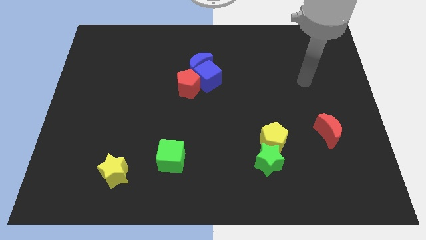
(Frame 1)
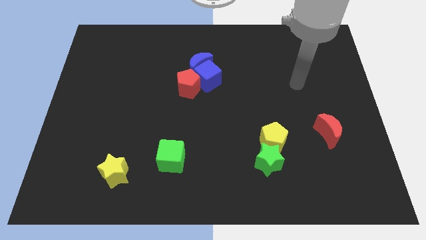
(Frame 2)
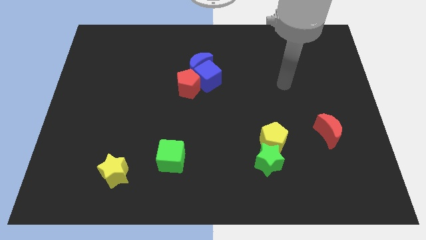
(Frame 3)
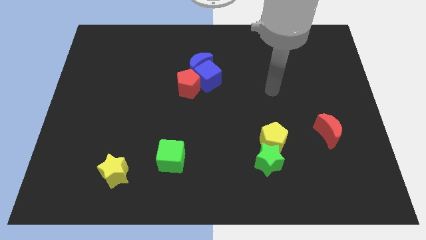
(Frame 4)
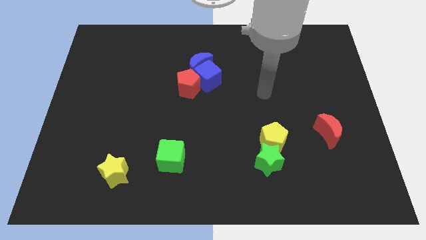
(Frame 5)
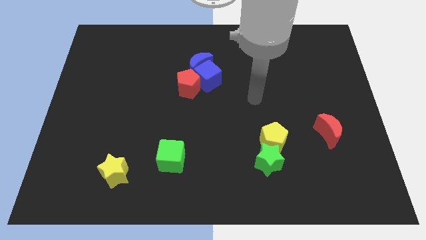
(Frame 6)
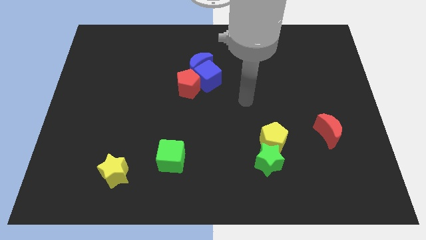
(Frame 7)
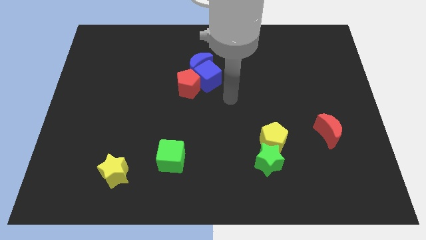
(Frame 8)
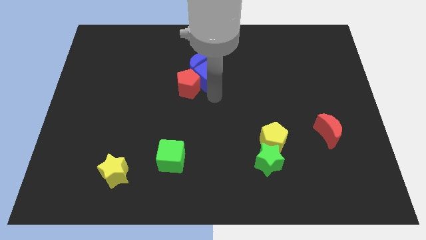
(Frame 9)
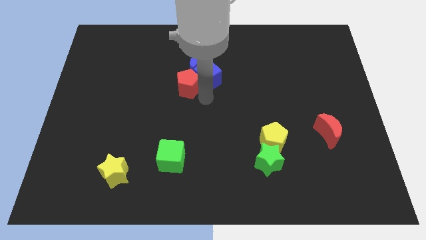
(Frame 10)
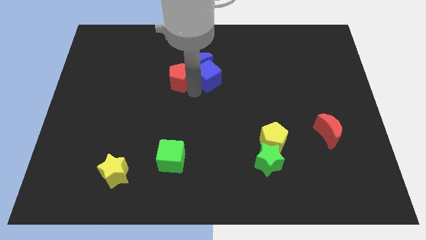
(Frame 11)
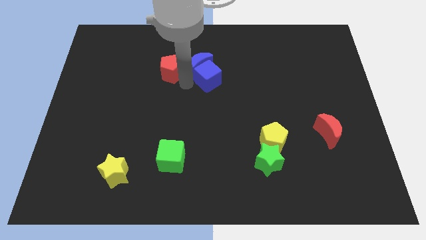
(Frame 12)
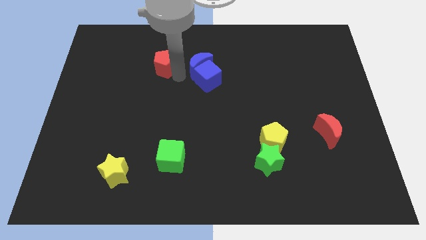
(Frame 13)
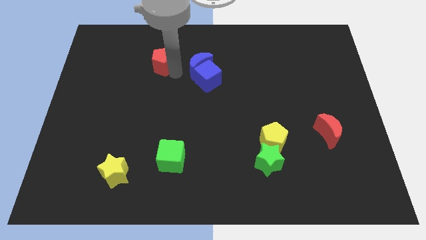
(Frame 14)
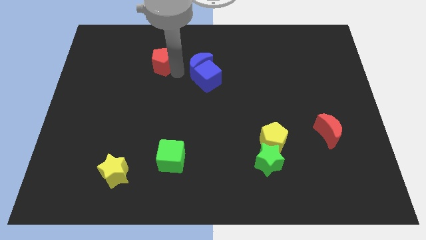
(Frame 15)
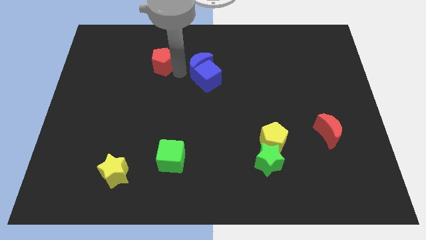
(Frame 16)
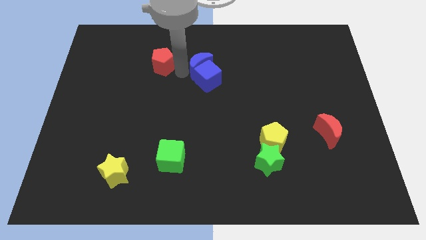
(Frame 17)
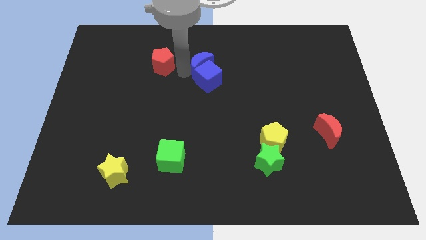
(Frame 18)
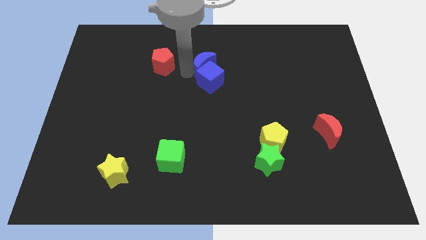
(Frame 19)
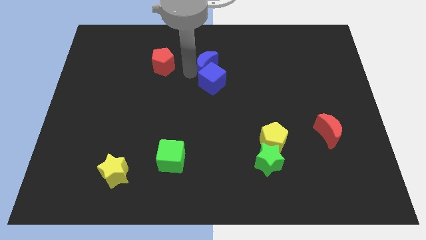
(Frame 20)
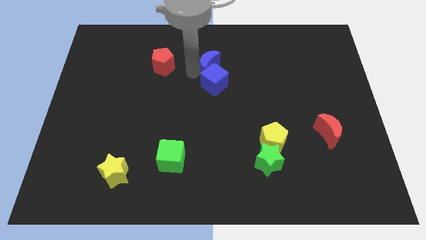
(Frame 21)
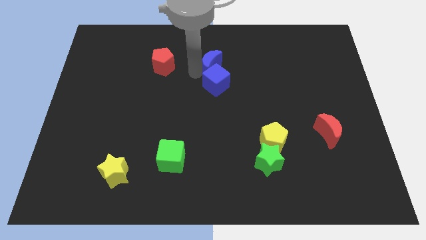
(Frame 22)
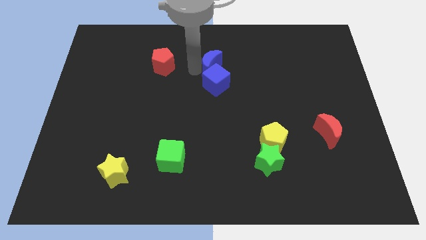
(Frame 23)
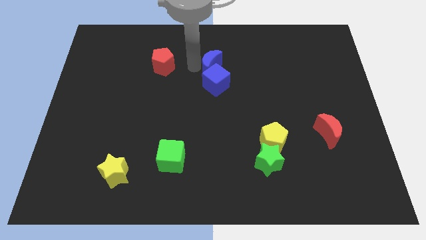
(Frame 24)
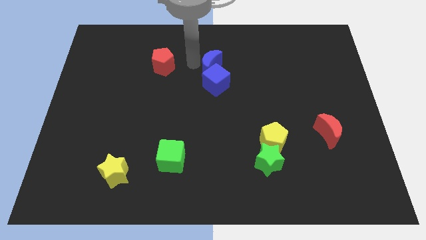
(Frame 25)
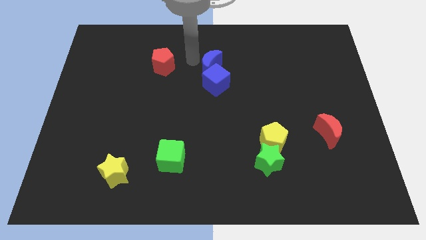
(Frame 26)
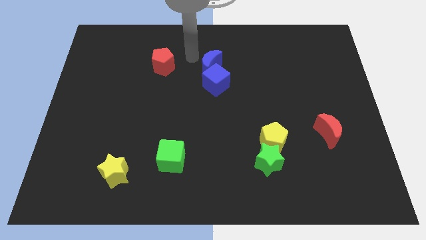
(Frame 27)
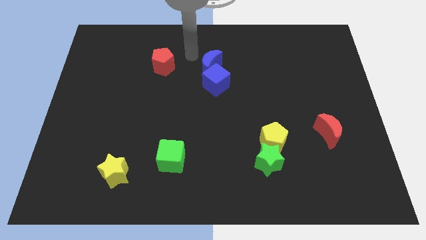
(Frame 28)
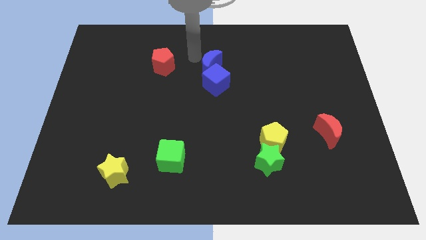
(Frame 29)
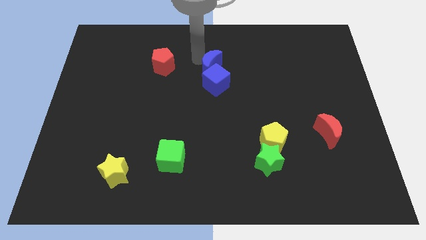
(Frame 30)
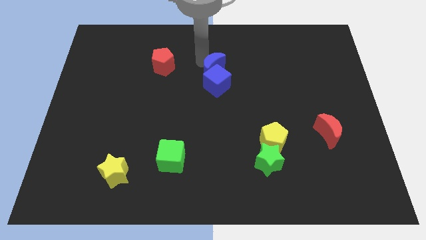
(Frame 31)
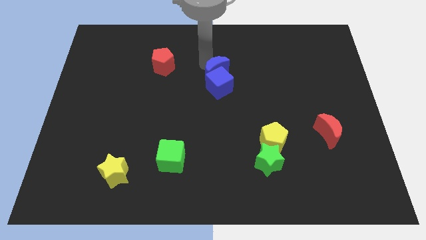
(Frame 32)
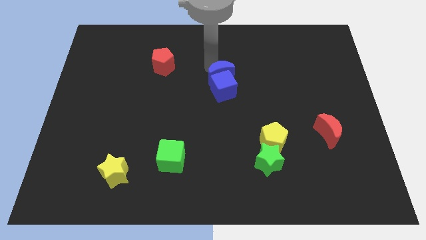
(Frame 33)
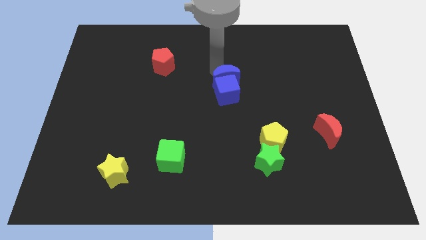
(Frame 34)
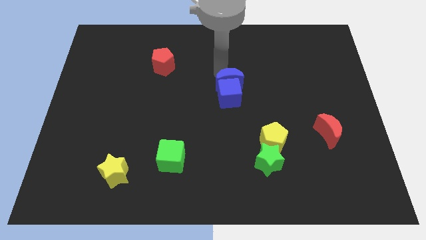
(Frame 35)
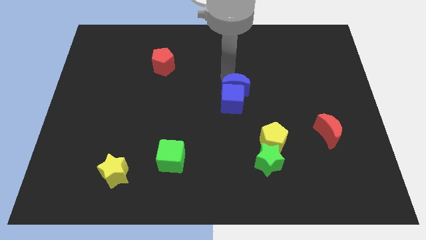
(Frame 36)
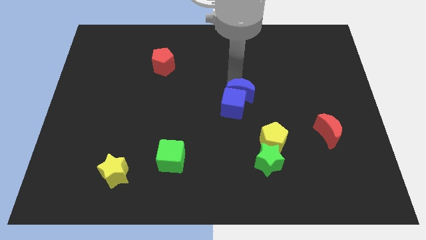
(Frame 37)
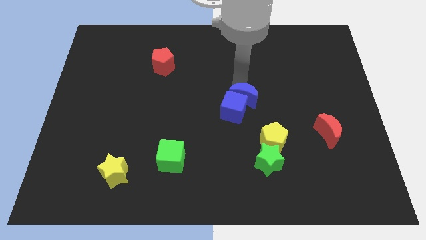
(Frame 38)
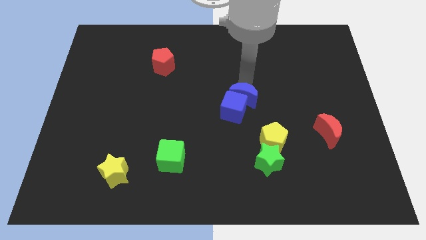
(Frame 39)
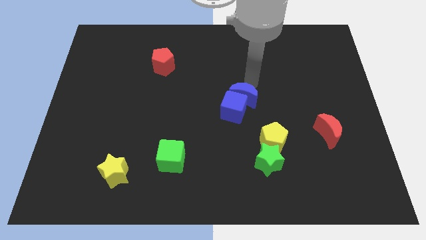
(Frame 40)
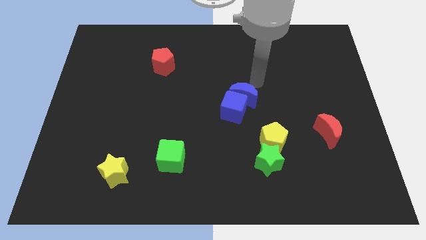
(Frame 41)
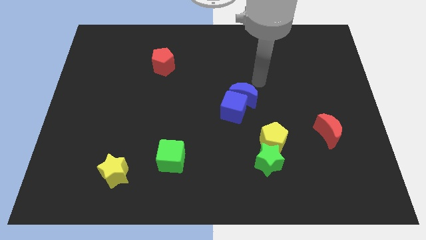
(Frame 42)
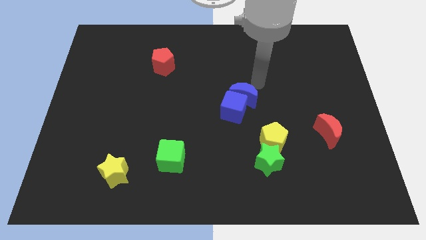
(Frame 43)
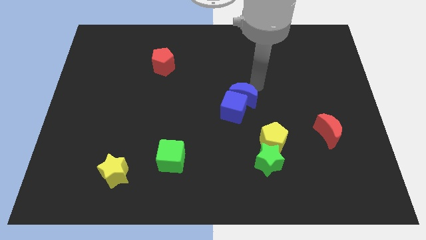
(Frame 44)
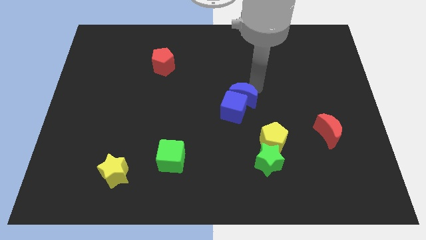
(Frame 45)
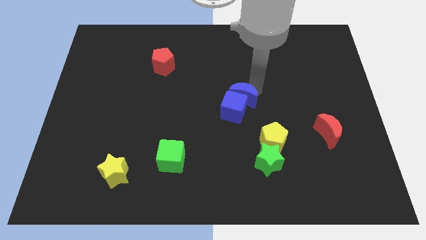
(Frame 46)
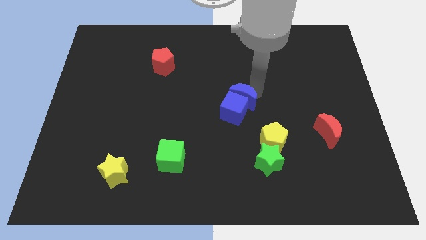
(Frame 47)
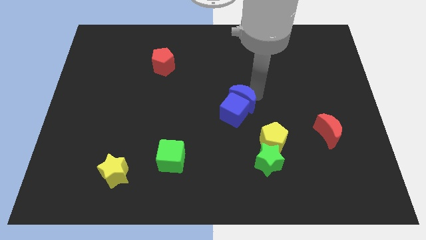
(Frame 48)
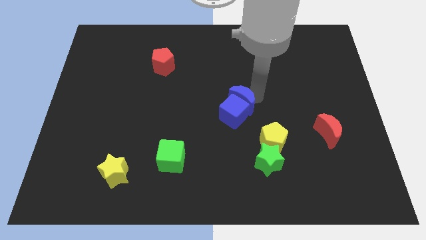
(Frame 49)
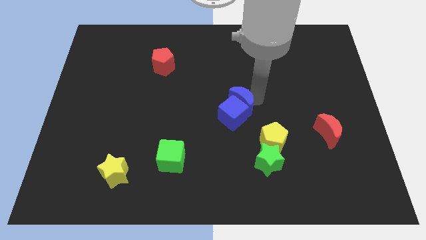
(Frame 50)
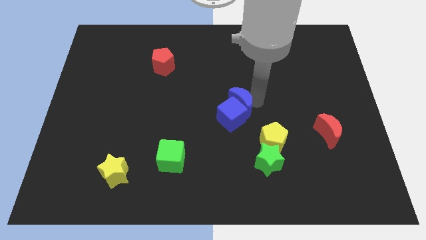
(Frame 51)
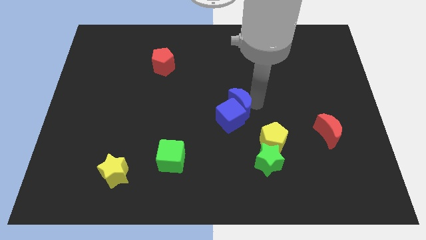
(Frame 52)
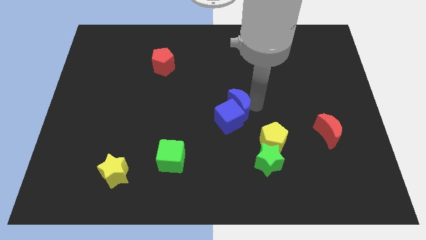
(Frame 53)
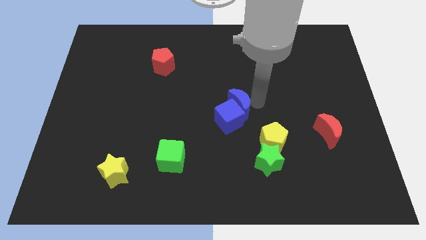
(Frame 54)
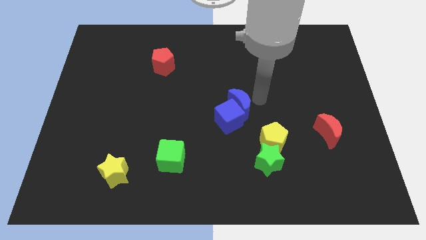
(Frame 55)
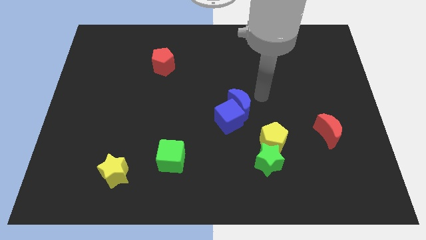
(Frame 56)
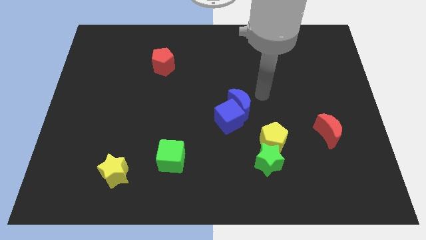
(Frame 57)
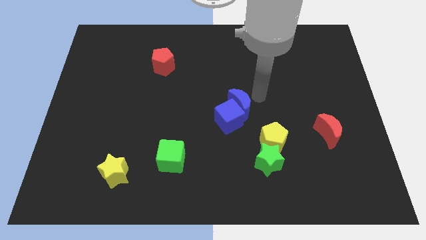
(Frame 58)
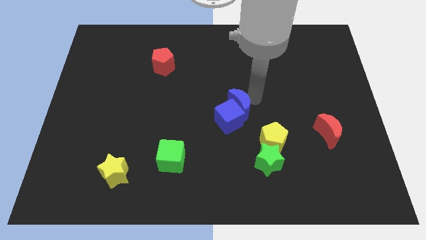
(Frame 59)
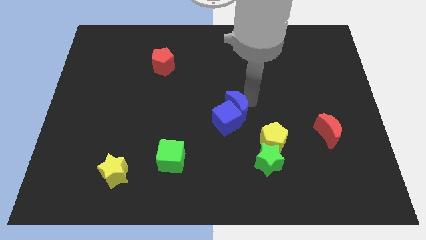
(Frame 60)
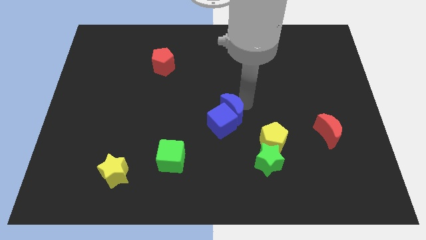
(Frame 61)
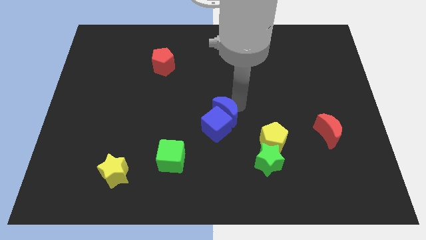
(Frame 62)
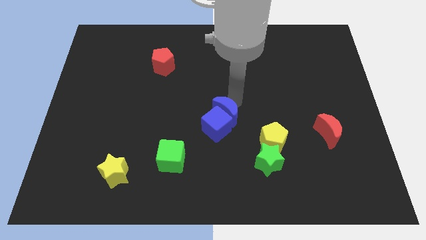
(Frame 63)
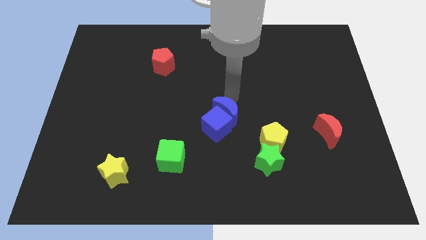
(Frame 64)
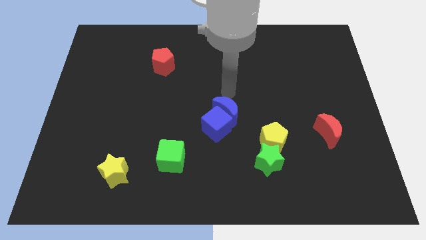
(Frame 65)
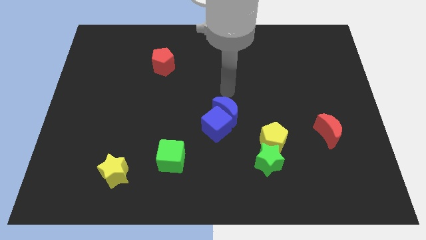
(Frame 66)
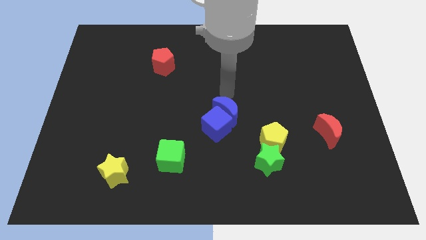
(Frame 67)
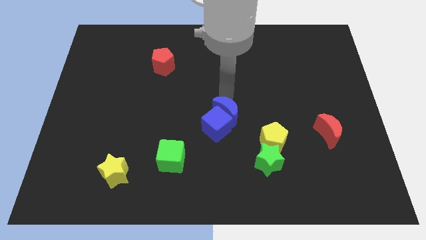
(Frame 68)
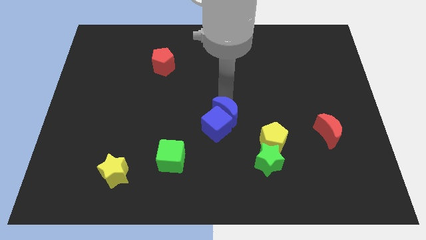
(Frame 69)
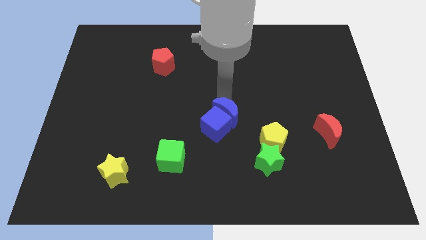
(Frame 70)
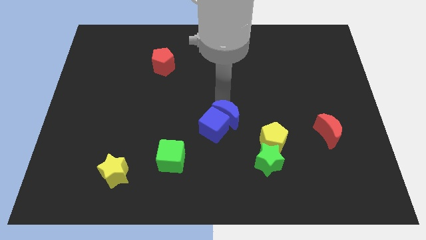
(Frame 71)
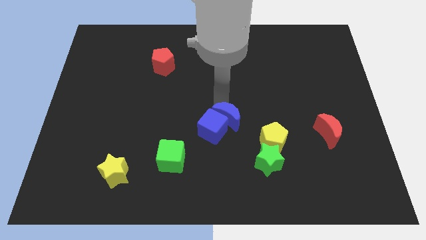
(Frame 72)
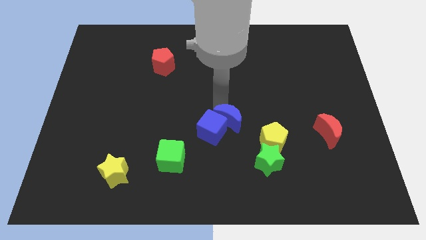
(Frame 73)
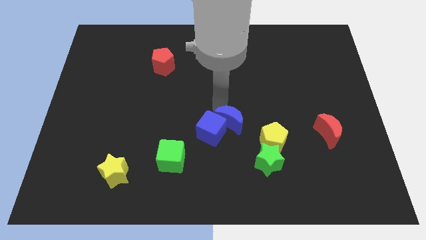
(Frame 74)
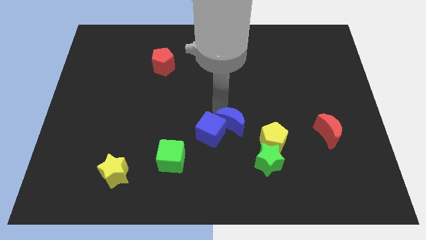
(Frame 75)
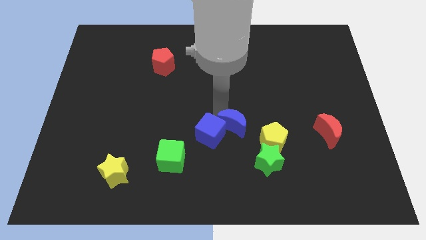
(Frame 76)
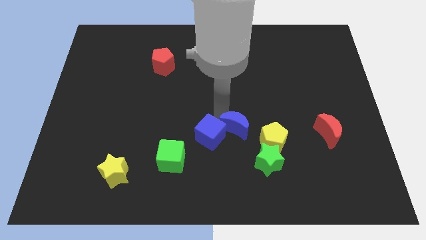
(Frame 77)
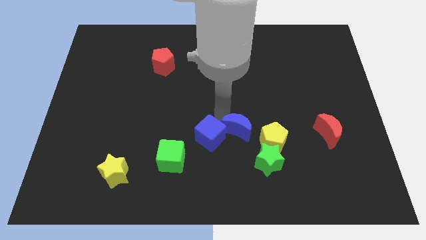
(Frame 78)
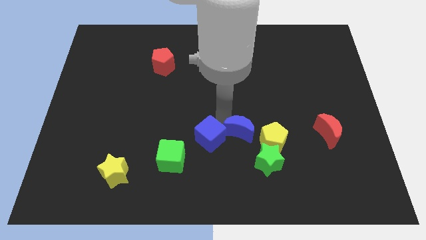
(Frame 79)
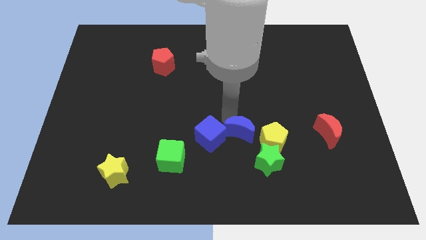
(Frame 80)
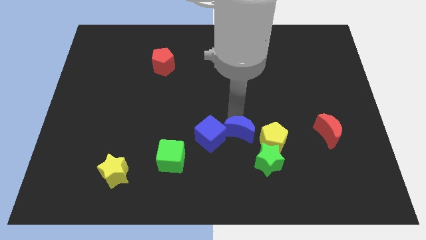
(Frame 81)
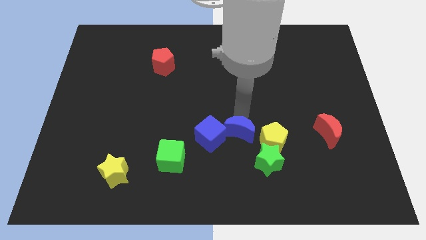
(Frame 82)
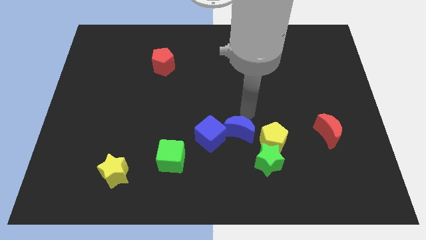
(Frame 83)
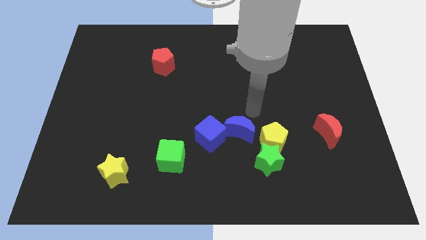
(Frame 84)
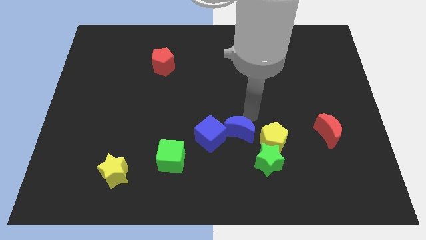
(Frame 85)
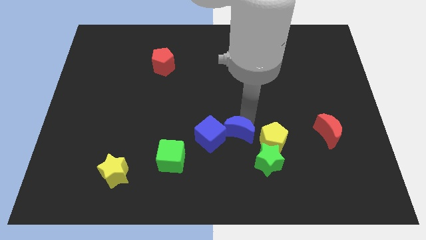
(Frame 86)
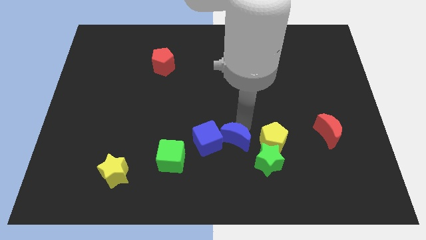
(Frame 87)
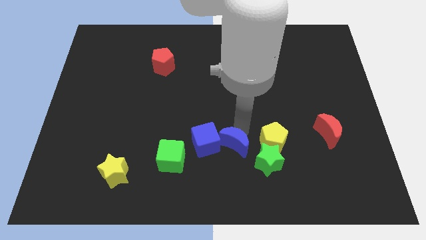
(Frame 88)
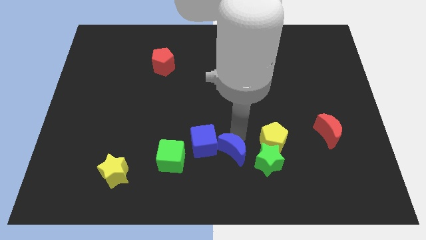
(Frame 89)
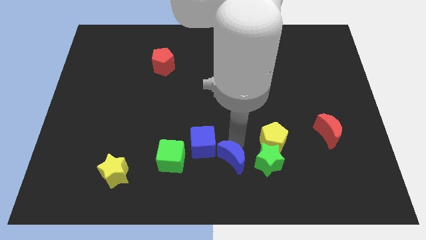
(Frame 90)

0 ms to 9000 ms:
move the blue moon to the bottom
